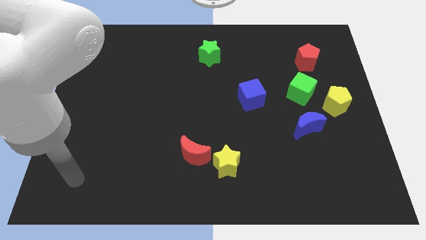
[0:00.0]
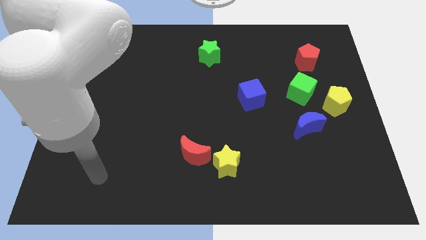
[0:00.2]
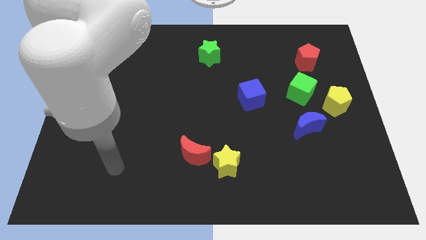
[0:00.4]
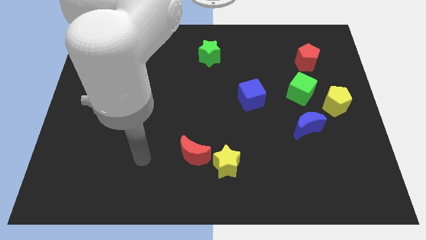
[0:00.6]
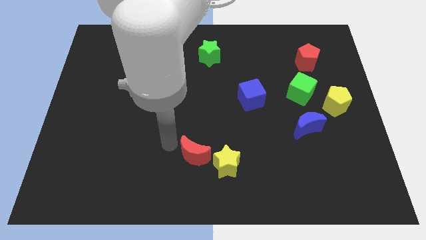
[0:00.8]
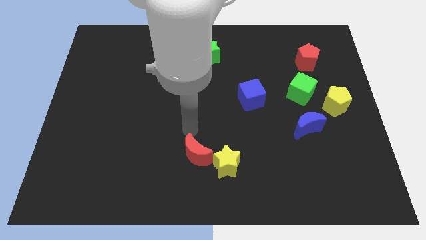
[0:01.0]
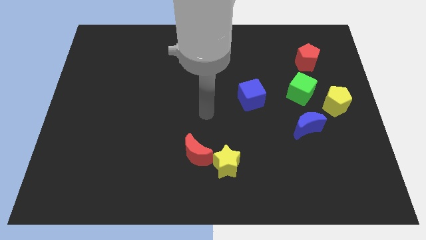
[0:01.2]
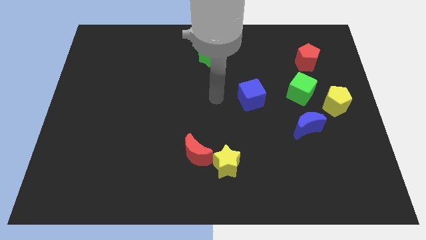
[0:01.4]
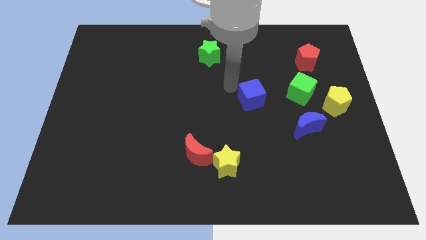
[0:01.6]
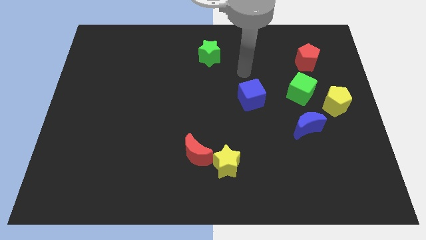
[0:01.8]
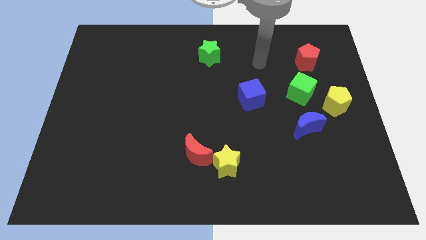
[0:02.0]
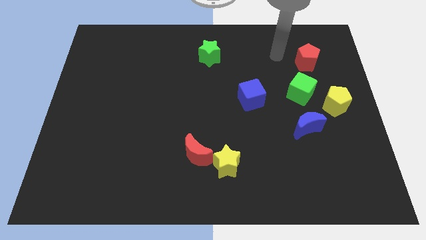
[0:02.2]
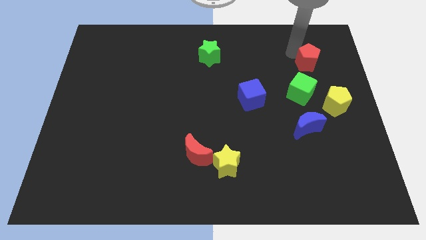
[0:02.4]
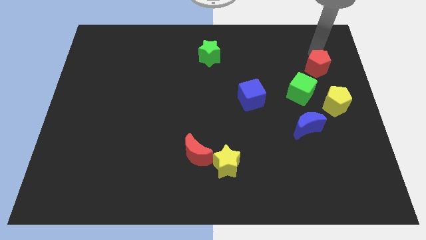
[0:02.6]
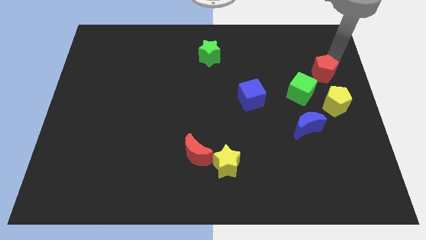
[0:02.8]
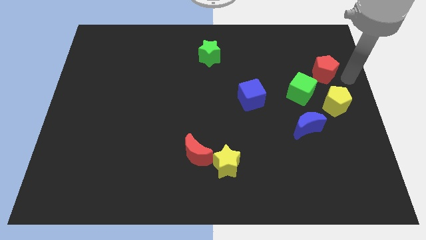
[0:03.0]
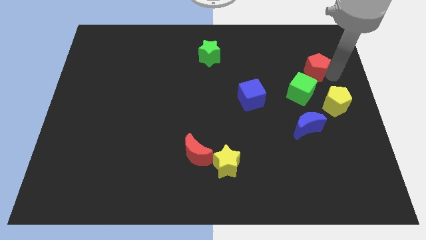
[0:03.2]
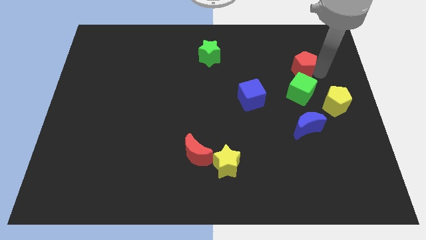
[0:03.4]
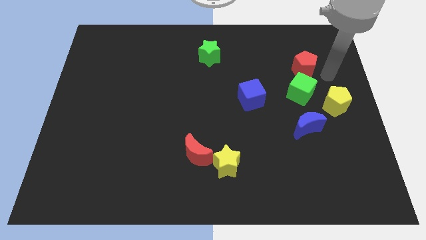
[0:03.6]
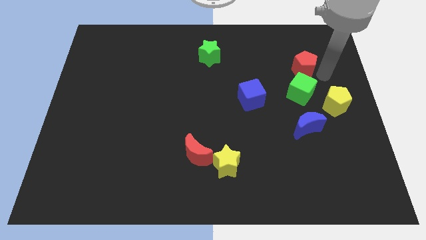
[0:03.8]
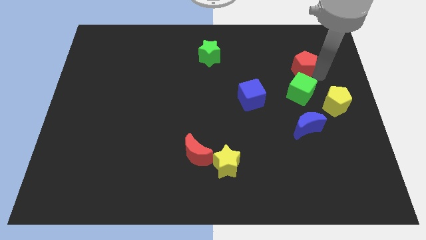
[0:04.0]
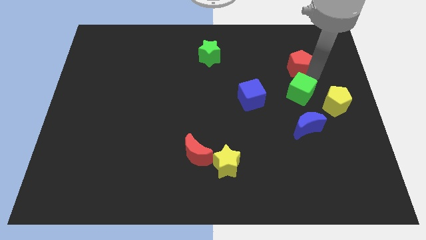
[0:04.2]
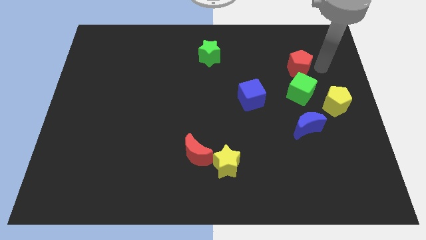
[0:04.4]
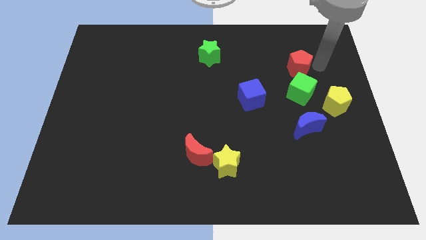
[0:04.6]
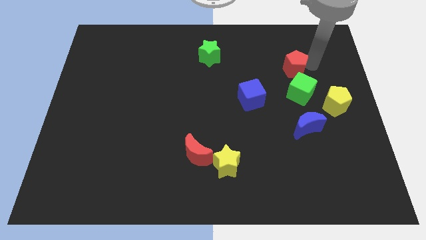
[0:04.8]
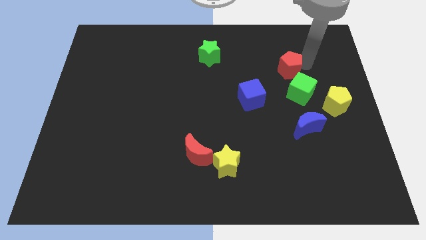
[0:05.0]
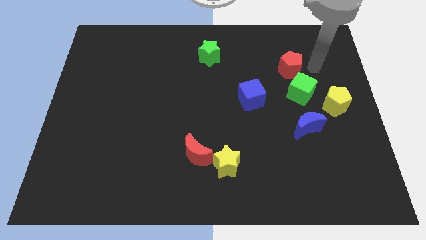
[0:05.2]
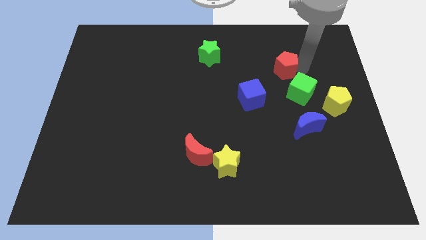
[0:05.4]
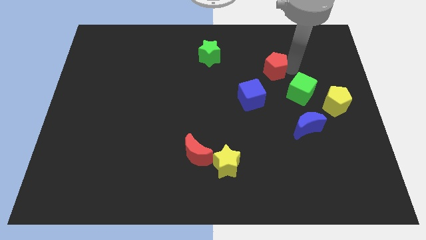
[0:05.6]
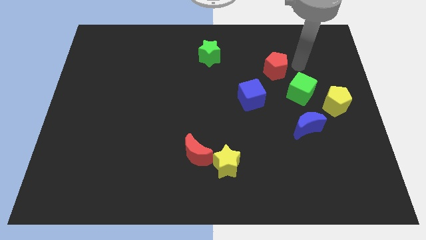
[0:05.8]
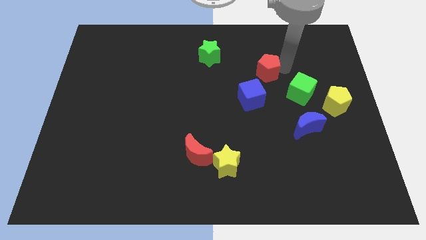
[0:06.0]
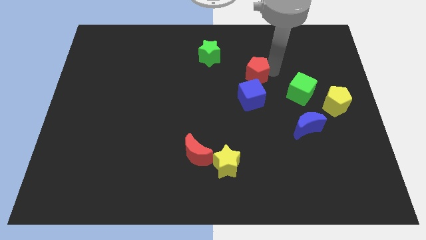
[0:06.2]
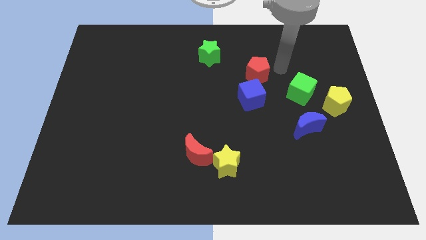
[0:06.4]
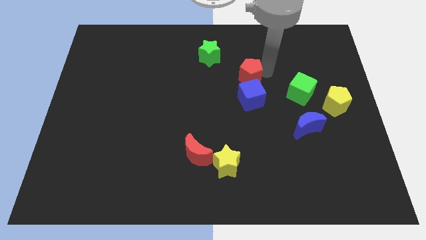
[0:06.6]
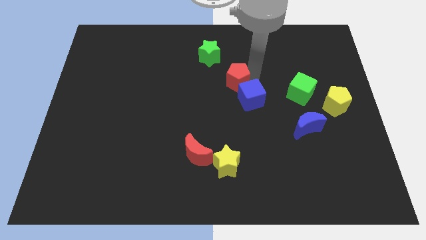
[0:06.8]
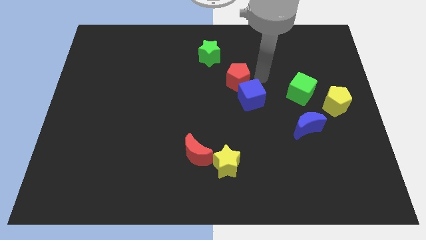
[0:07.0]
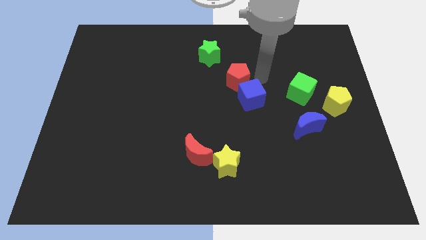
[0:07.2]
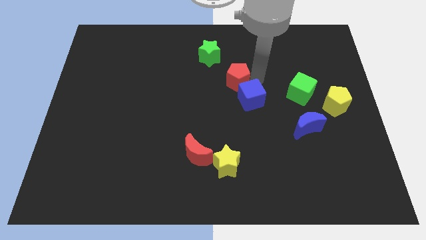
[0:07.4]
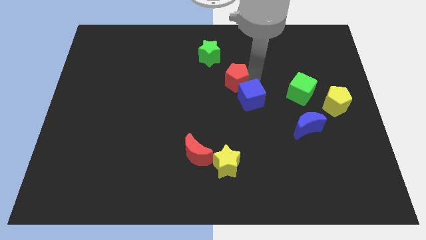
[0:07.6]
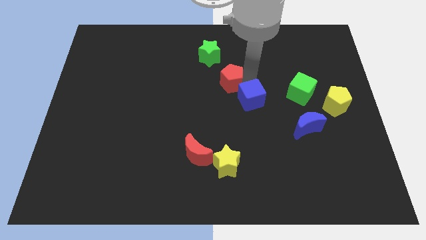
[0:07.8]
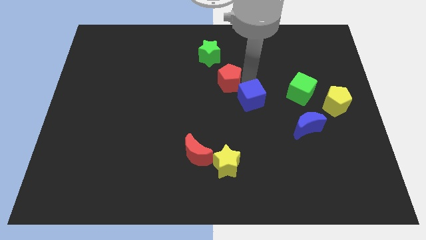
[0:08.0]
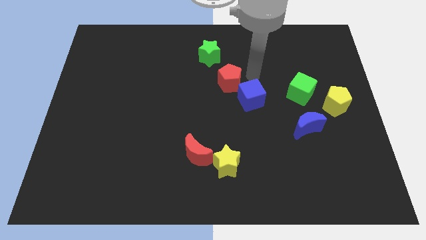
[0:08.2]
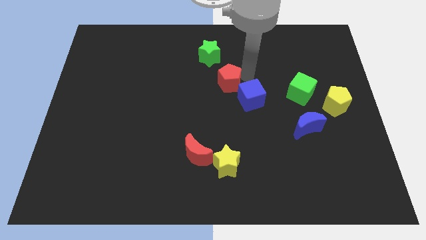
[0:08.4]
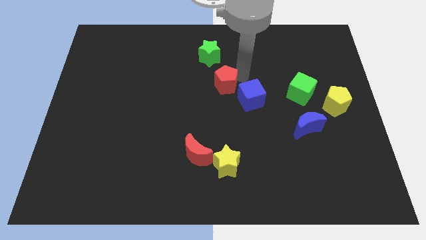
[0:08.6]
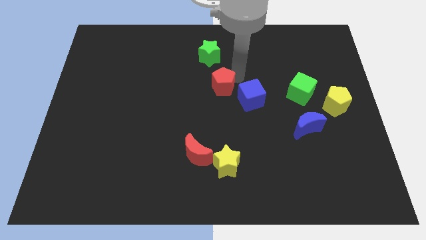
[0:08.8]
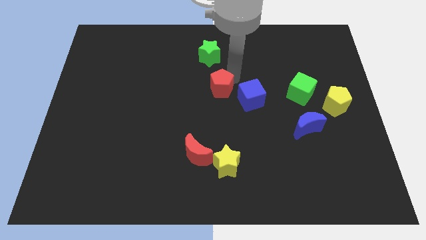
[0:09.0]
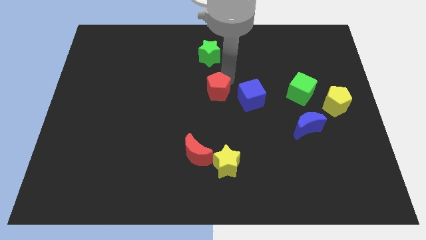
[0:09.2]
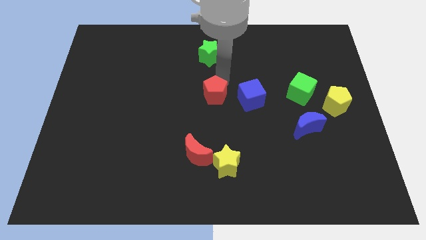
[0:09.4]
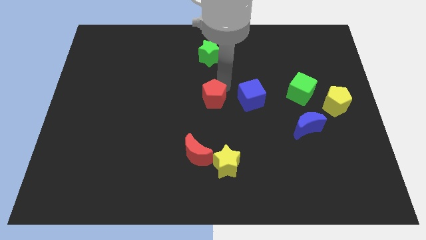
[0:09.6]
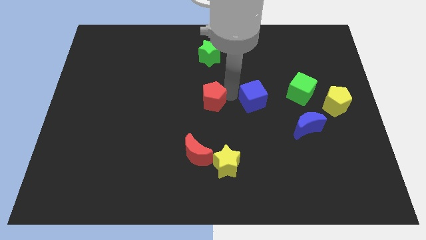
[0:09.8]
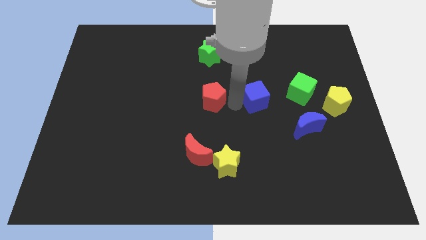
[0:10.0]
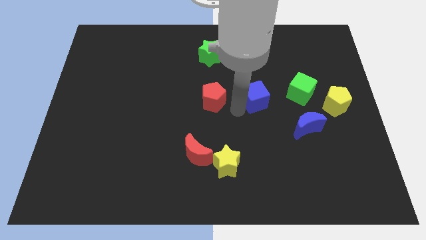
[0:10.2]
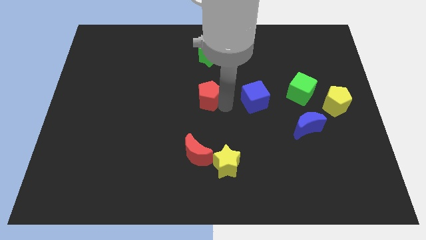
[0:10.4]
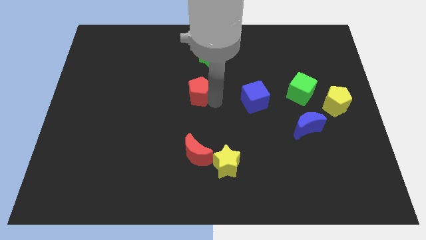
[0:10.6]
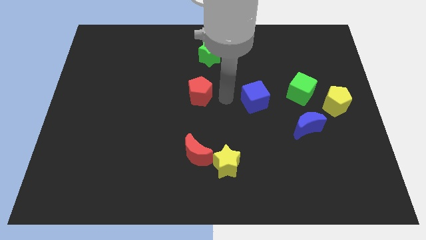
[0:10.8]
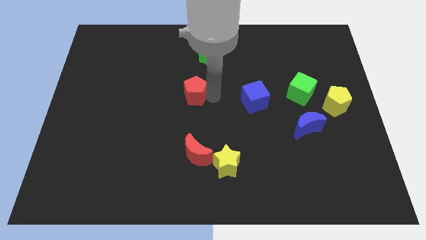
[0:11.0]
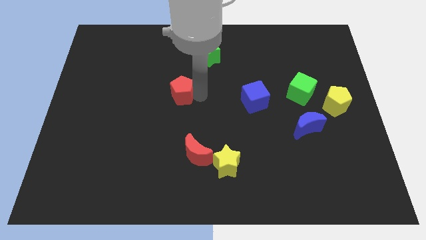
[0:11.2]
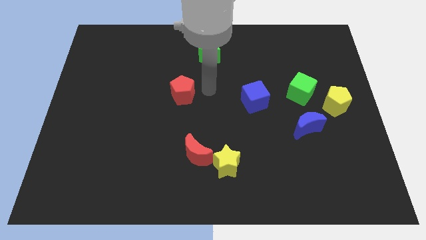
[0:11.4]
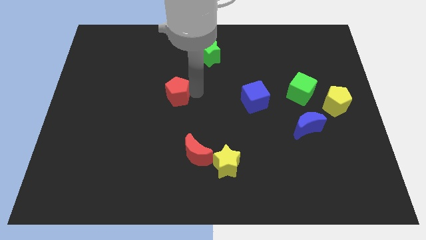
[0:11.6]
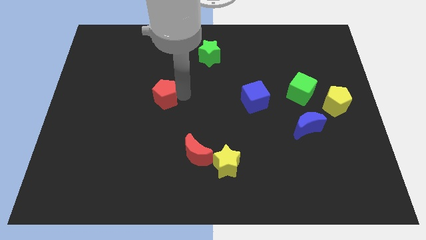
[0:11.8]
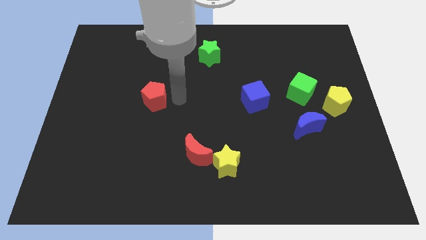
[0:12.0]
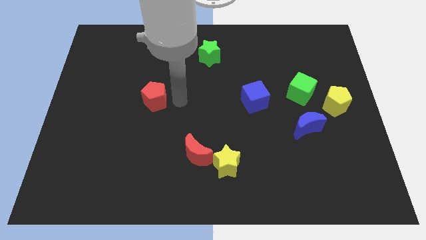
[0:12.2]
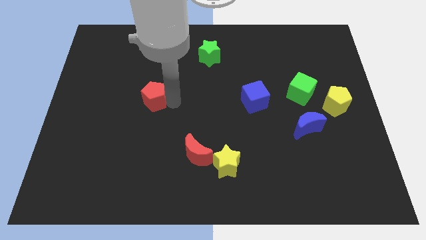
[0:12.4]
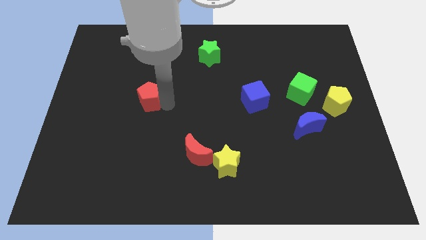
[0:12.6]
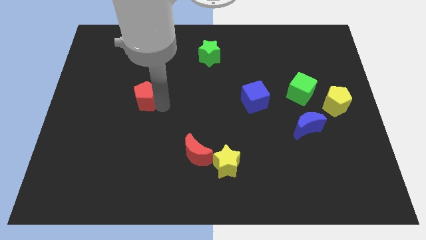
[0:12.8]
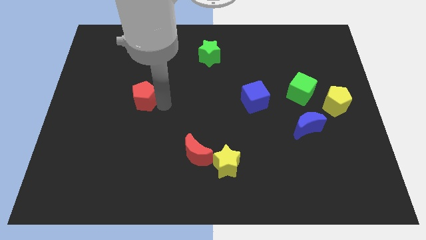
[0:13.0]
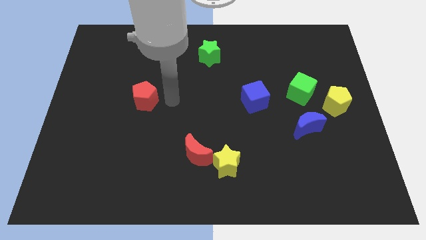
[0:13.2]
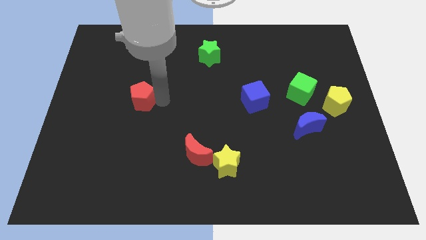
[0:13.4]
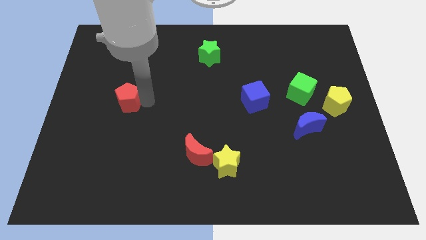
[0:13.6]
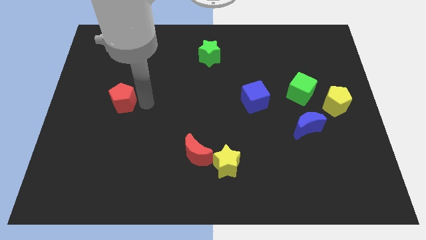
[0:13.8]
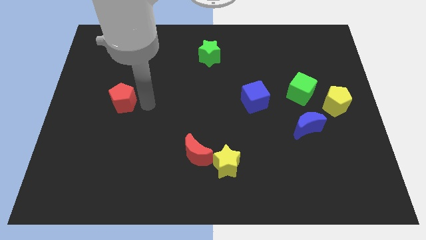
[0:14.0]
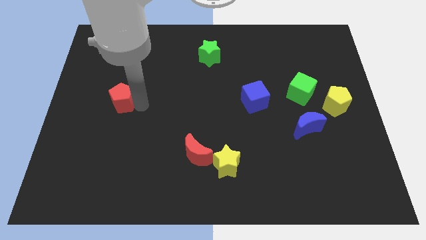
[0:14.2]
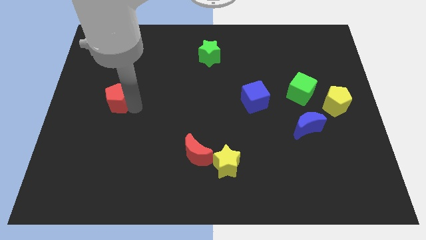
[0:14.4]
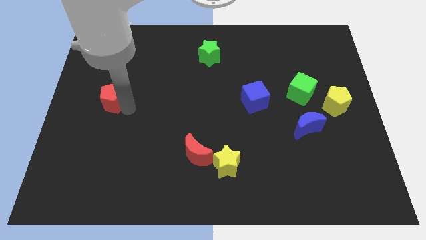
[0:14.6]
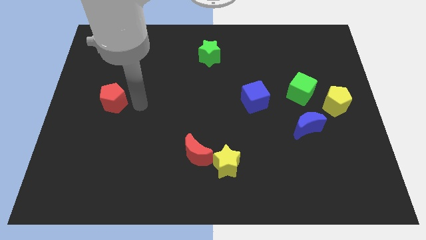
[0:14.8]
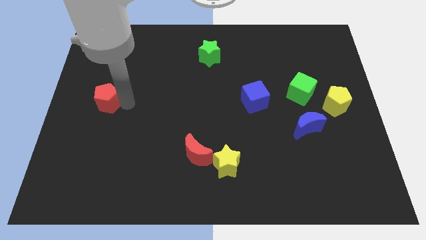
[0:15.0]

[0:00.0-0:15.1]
slide the red pentagon to the left side of the board
